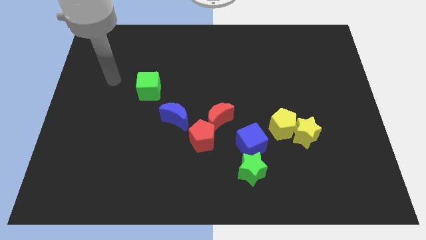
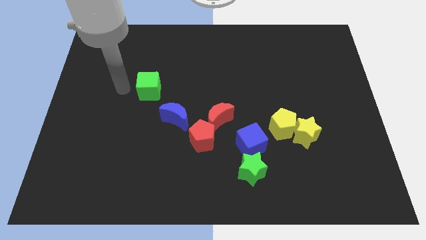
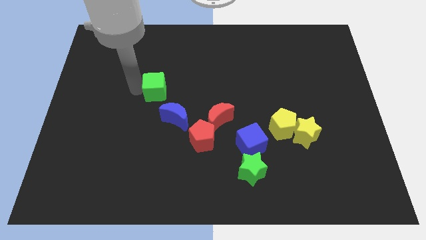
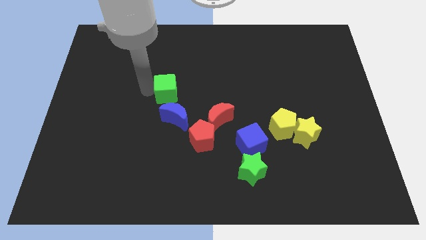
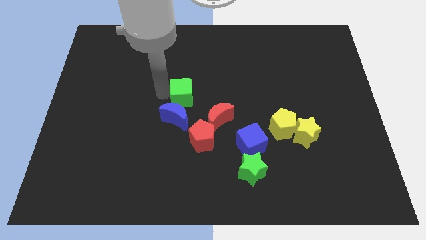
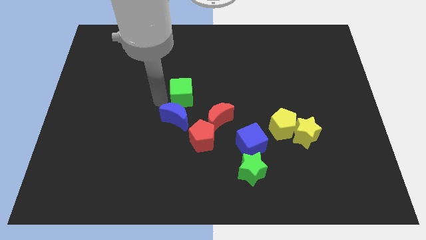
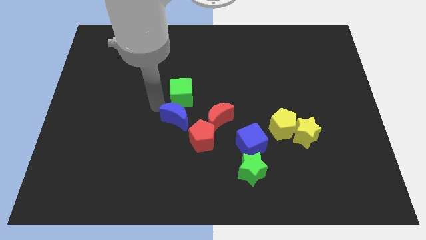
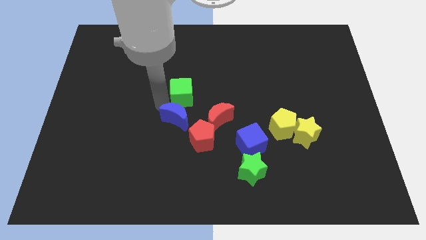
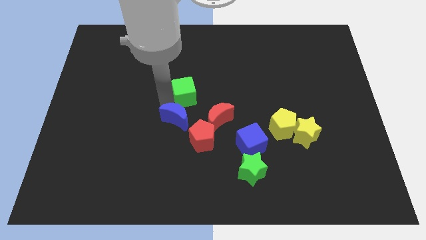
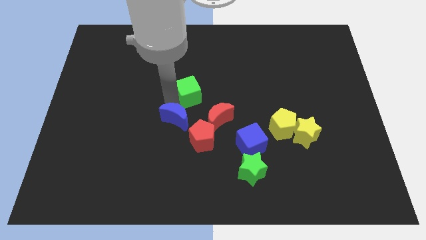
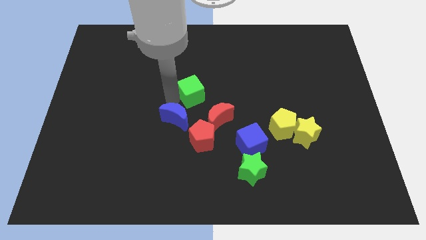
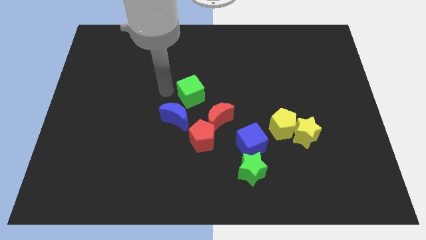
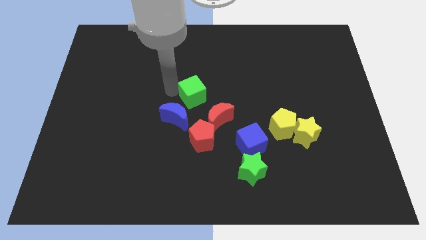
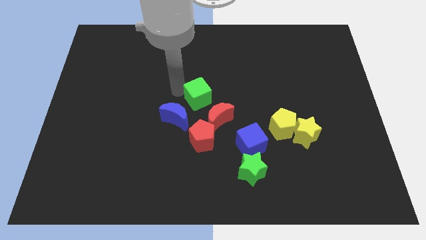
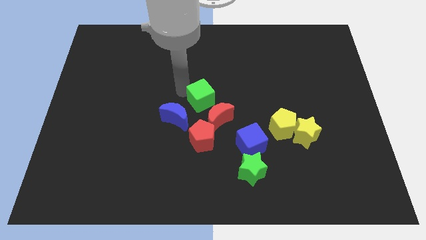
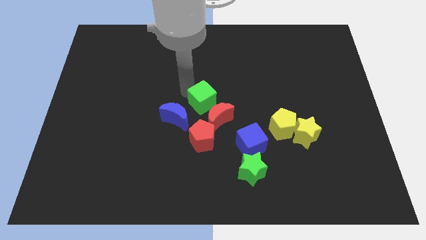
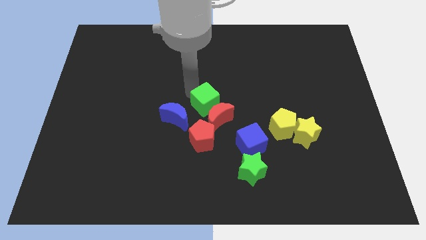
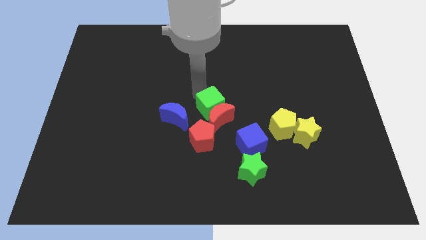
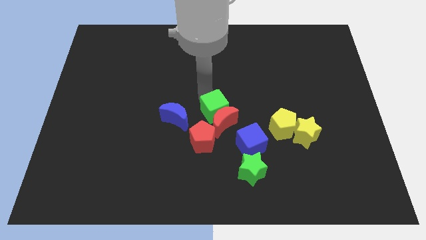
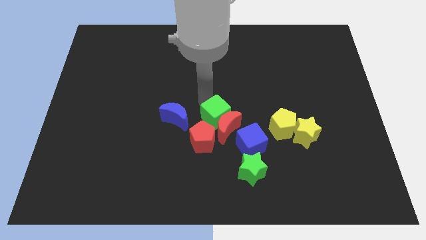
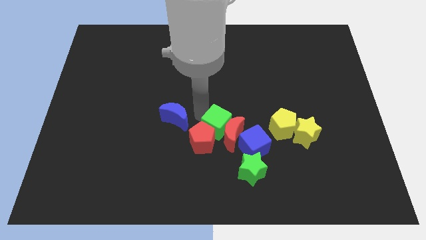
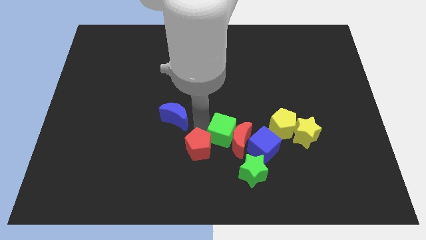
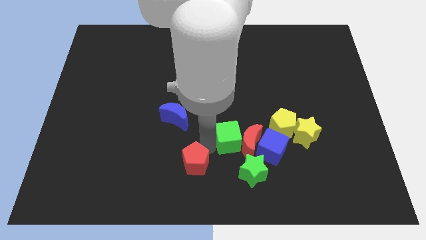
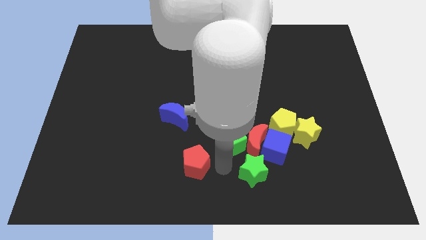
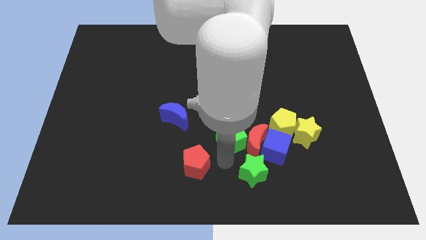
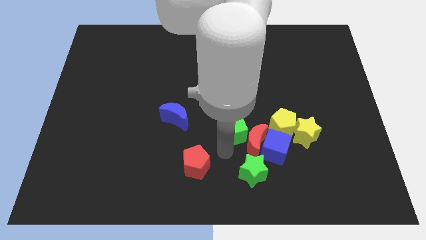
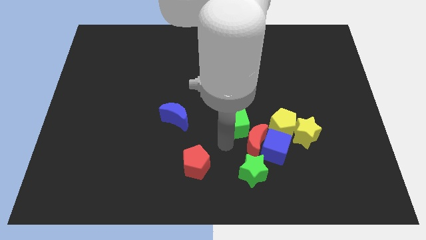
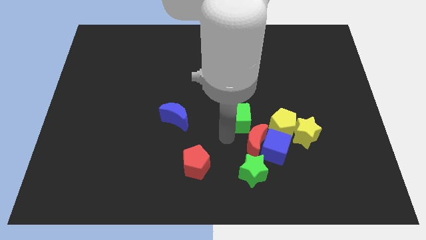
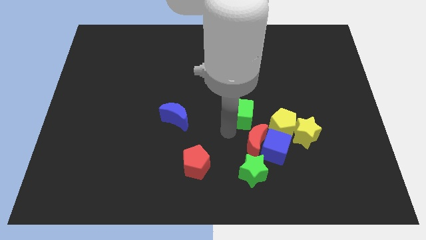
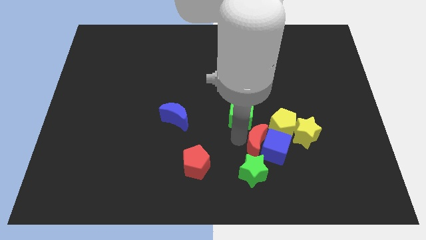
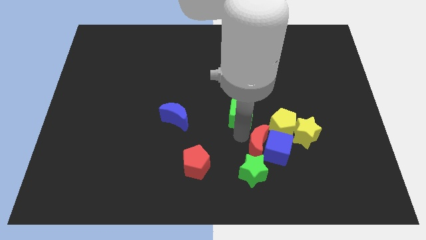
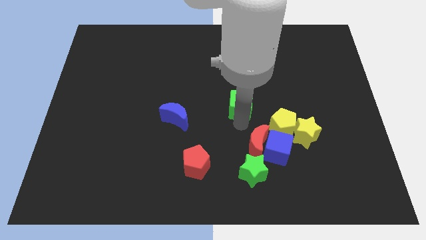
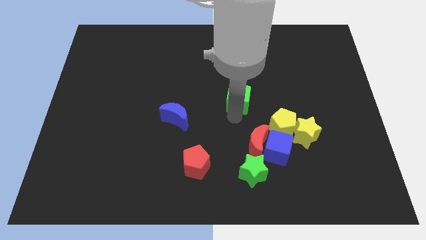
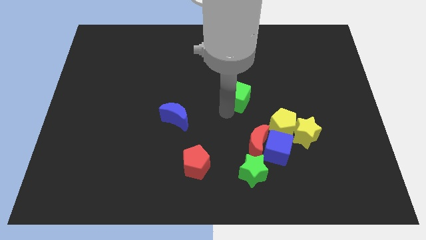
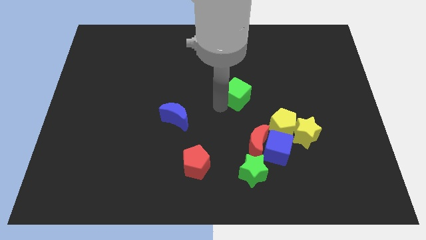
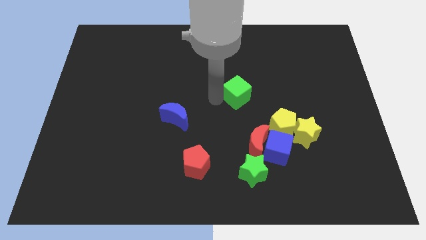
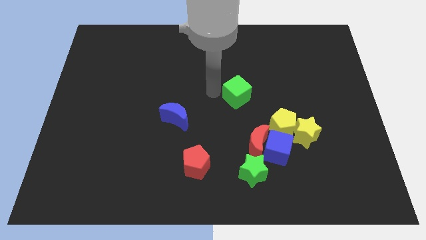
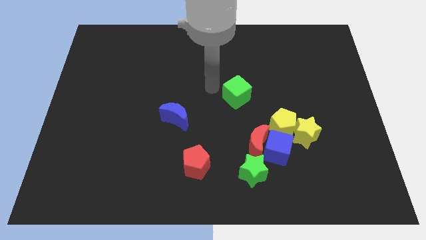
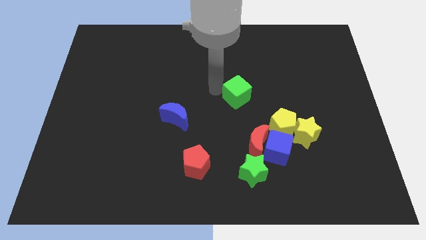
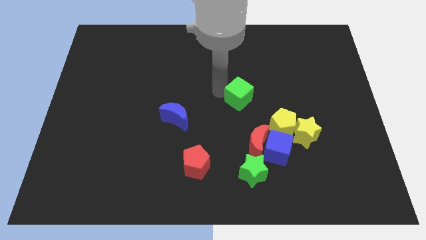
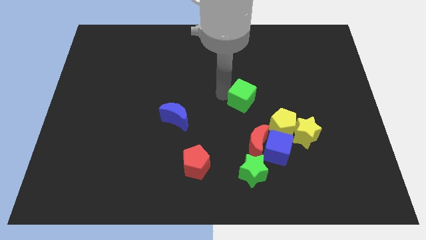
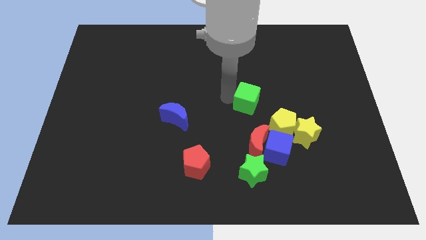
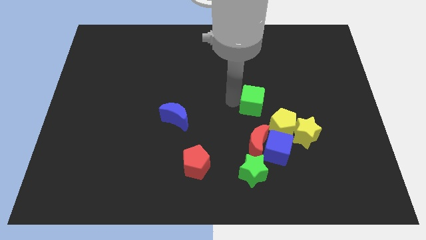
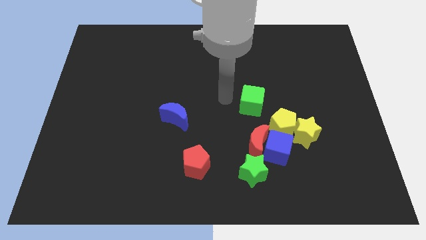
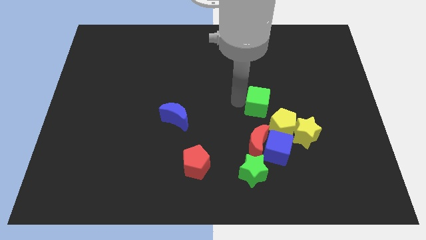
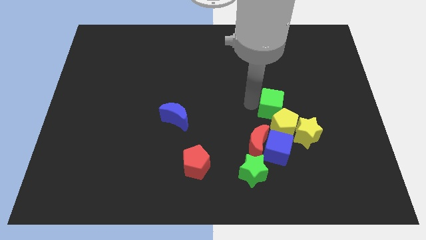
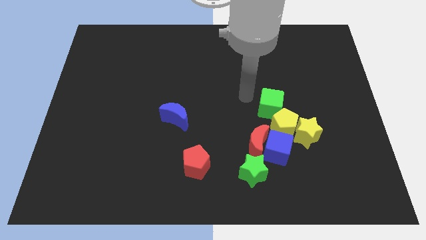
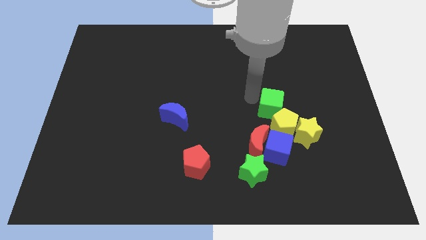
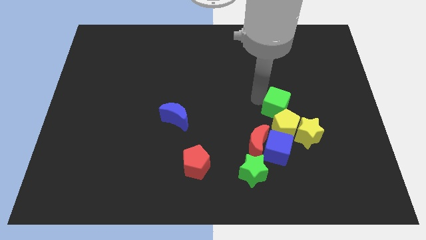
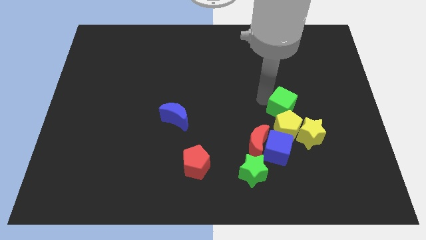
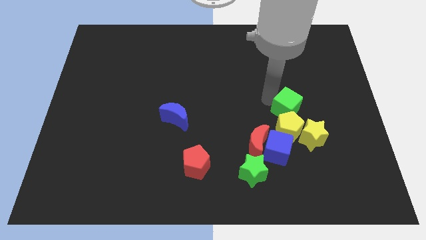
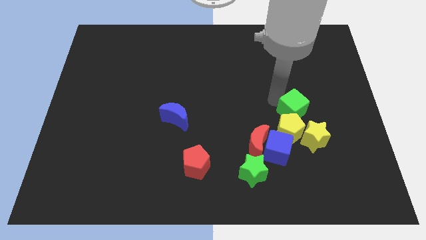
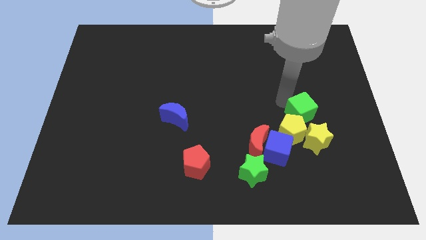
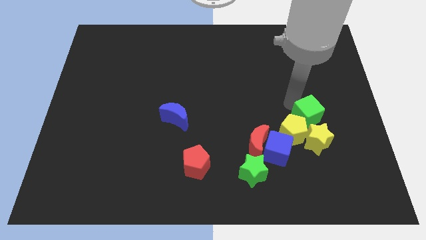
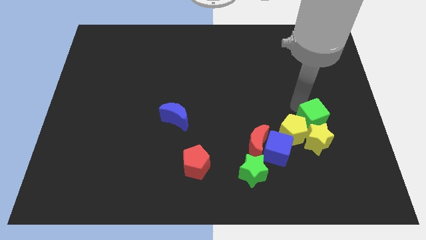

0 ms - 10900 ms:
push the green cube close to the yellow star

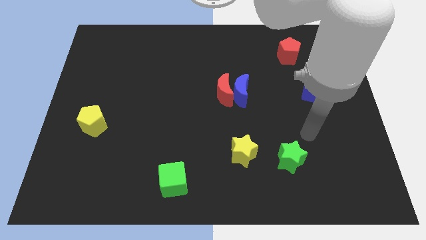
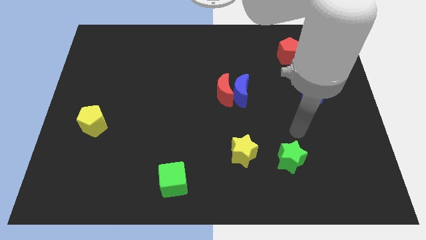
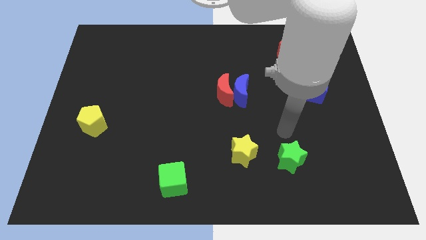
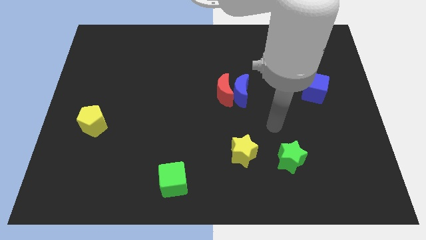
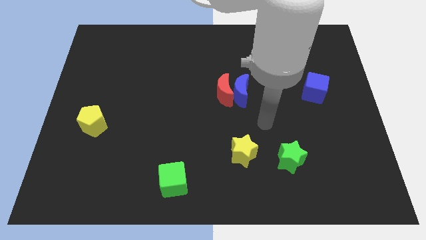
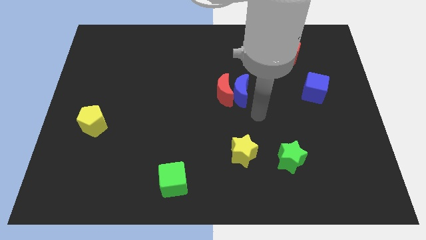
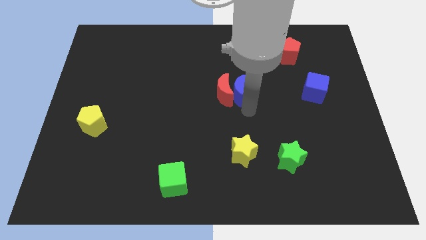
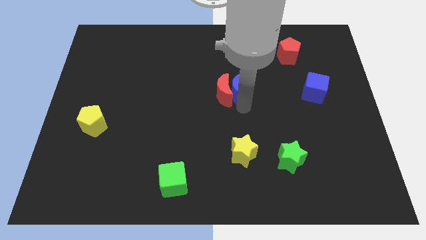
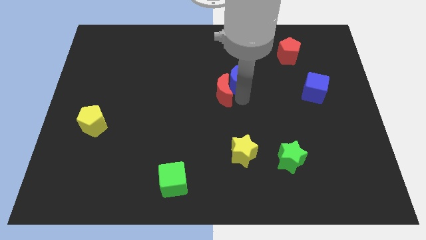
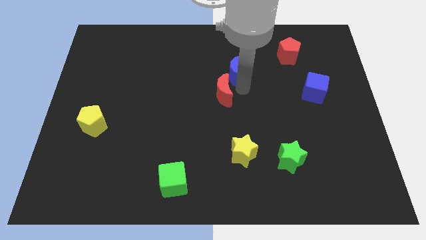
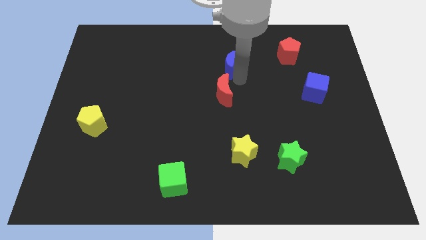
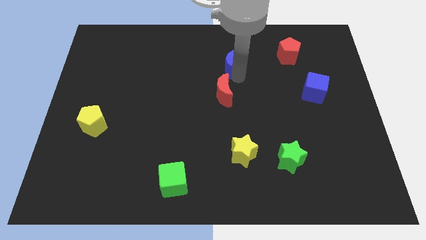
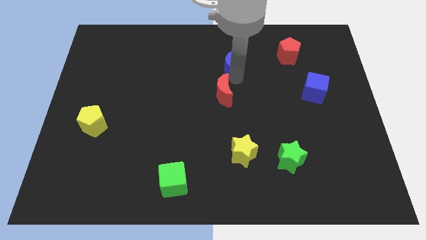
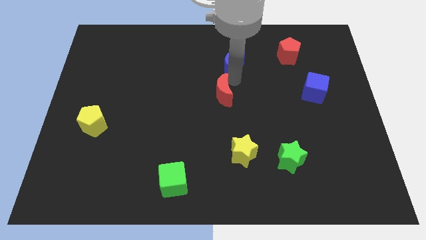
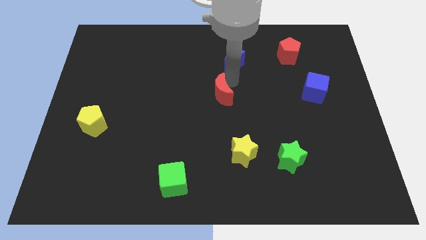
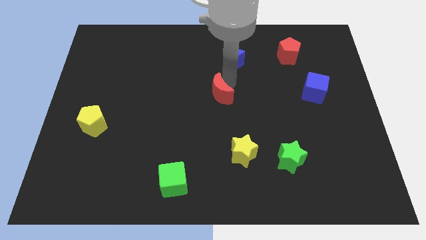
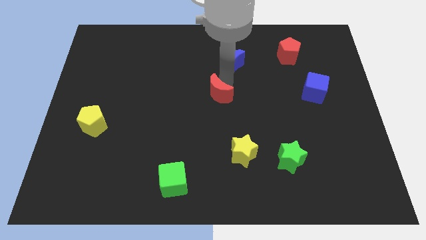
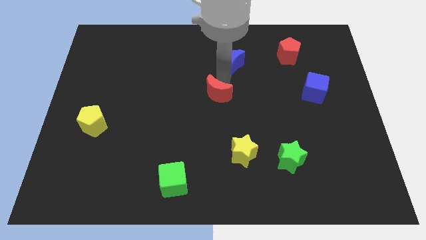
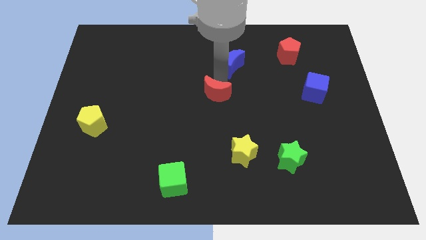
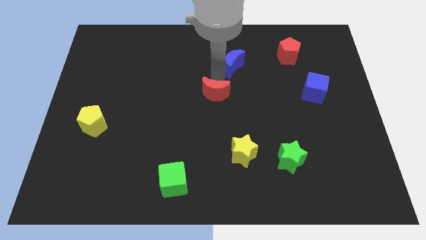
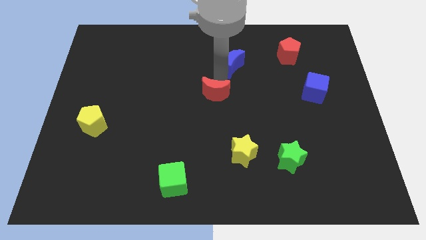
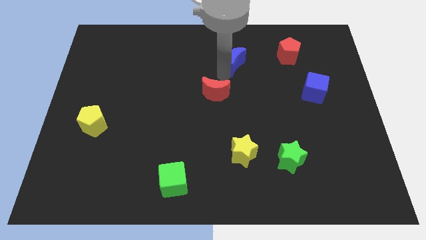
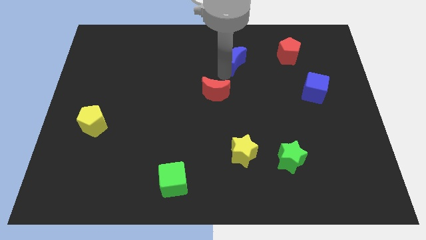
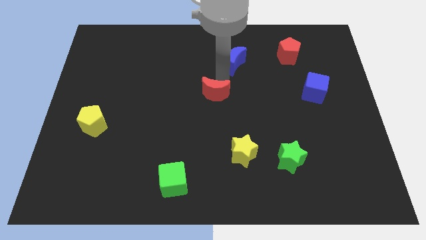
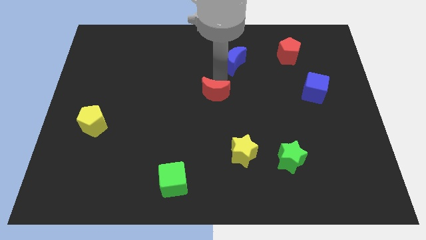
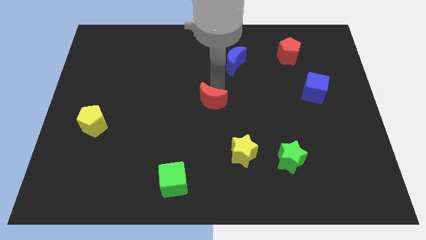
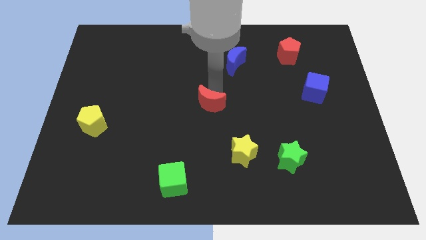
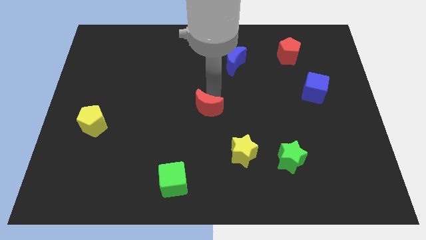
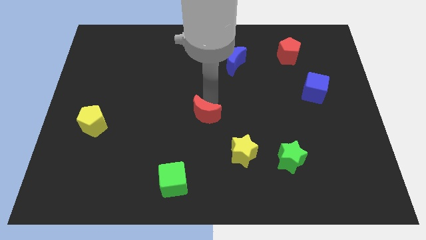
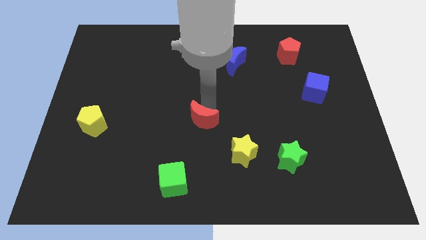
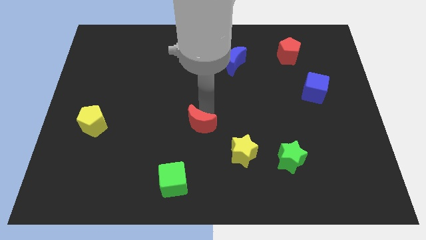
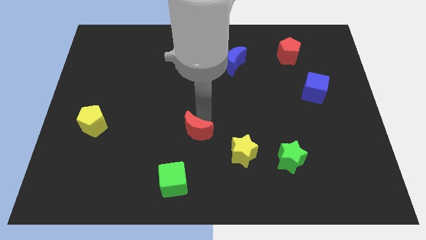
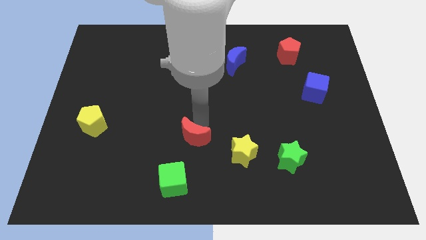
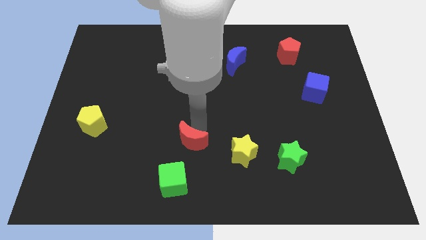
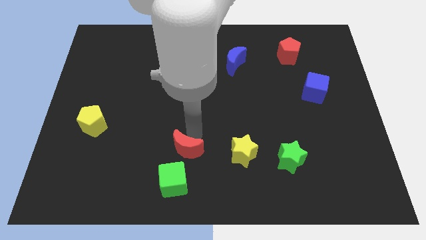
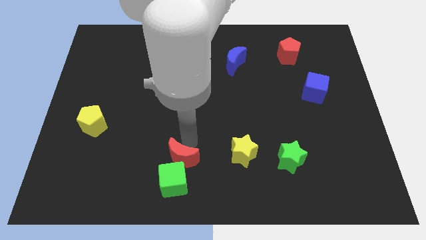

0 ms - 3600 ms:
move the red moon towards the green cube
